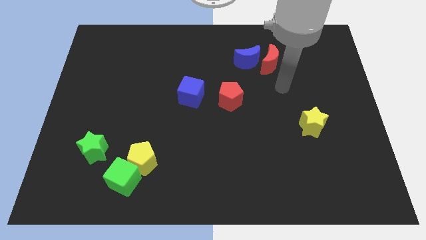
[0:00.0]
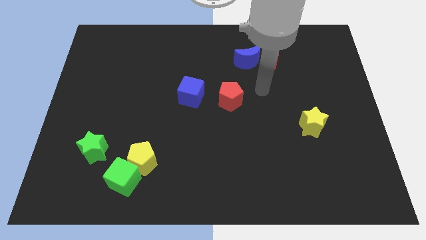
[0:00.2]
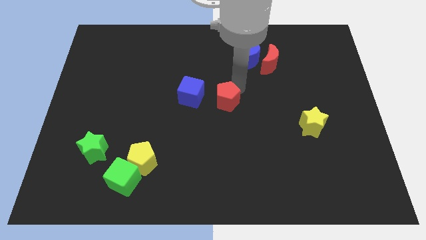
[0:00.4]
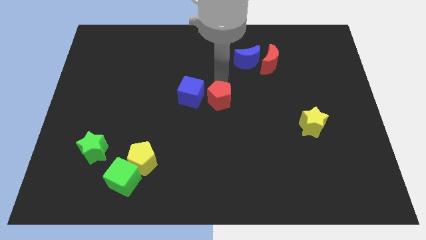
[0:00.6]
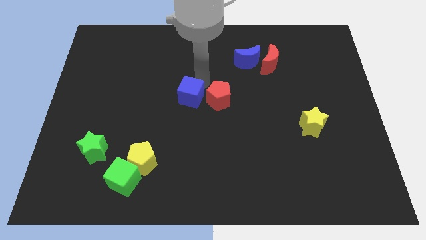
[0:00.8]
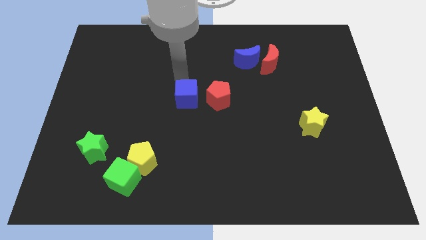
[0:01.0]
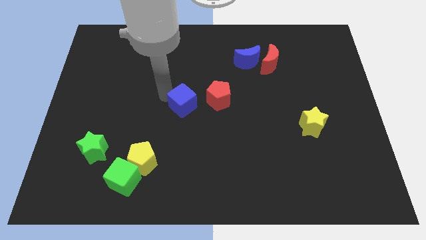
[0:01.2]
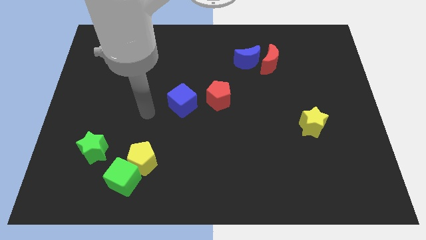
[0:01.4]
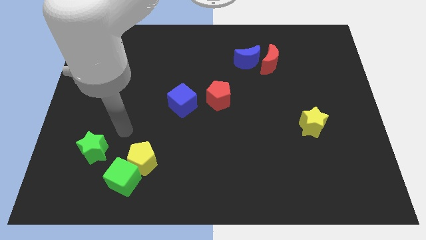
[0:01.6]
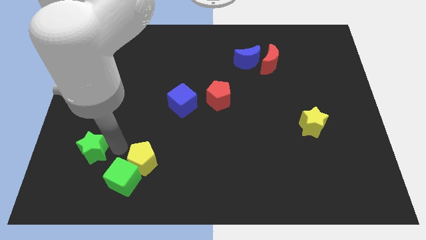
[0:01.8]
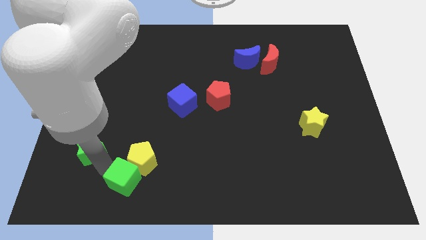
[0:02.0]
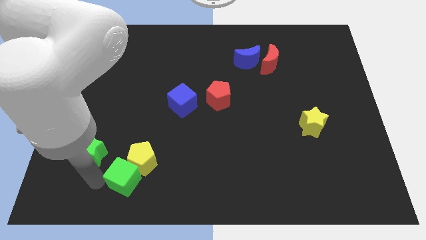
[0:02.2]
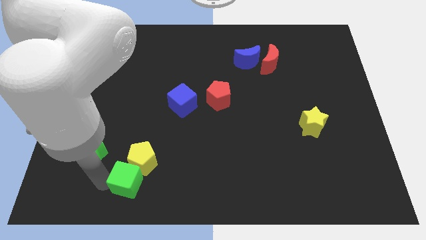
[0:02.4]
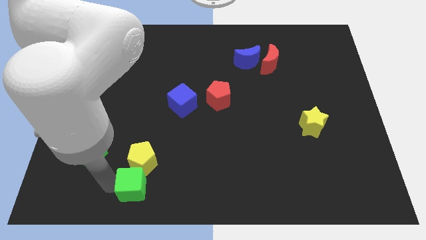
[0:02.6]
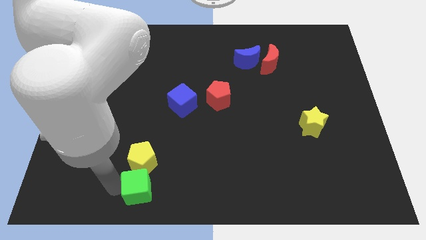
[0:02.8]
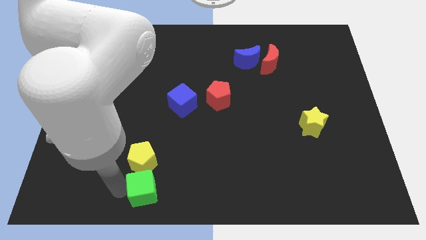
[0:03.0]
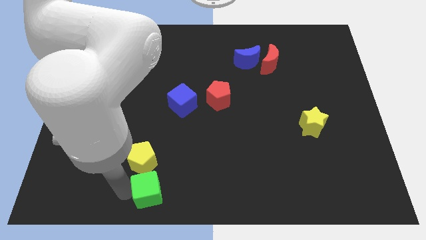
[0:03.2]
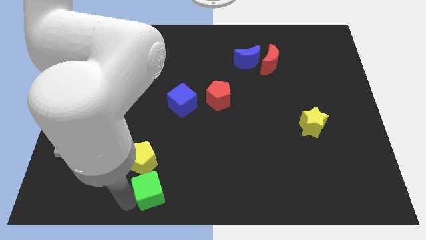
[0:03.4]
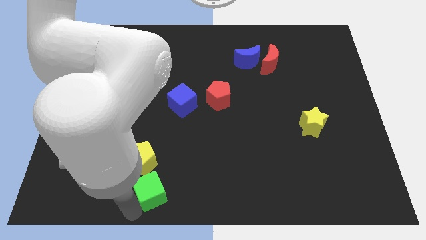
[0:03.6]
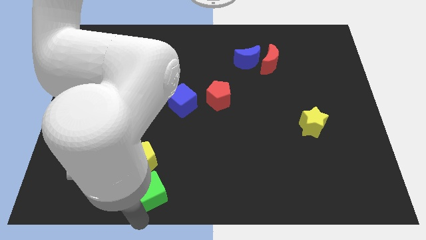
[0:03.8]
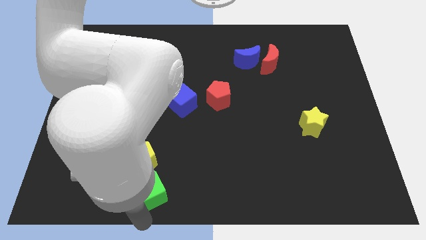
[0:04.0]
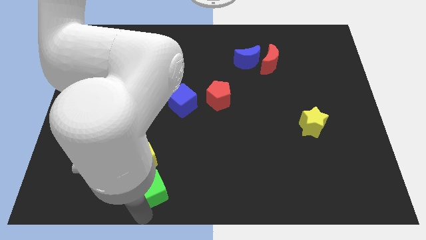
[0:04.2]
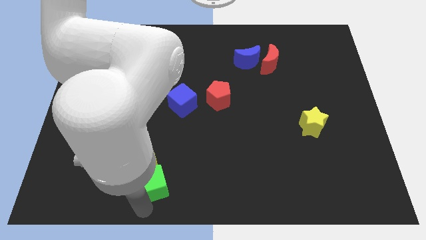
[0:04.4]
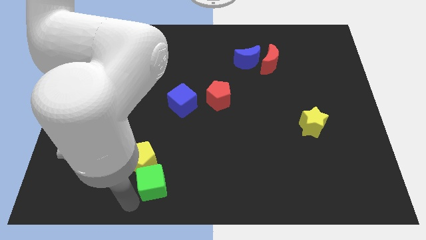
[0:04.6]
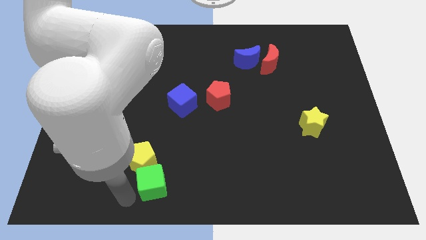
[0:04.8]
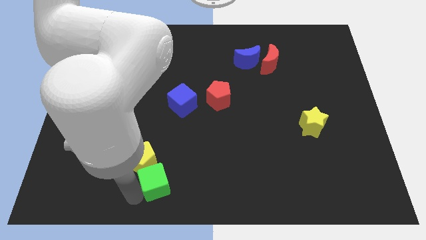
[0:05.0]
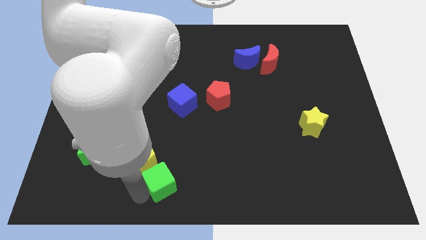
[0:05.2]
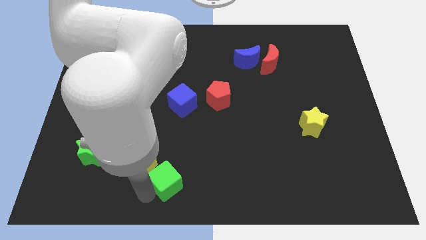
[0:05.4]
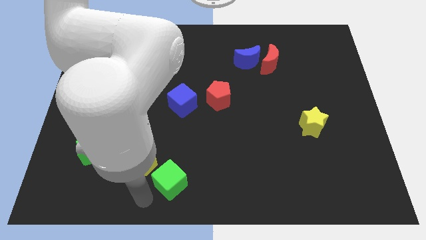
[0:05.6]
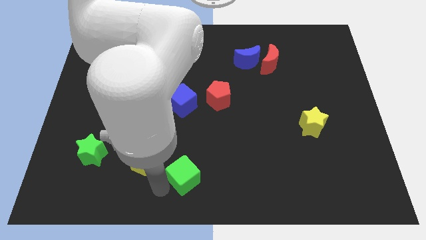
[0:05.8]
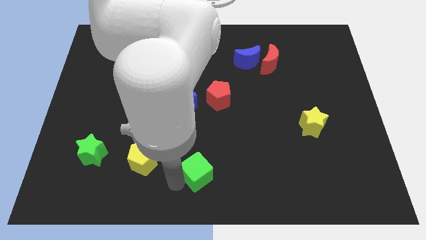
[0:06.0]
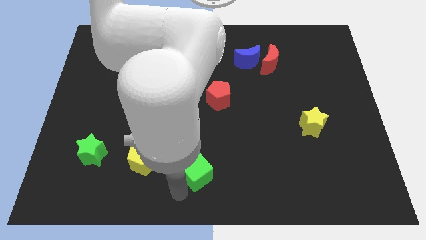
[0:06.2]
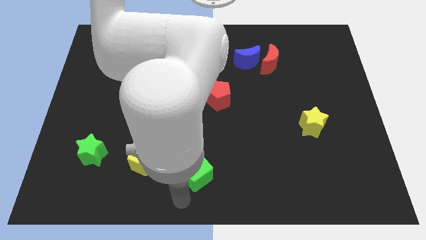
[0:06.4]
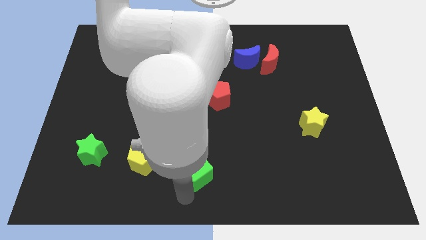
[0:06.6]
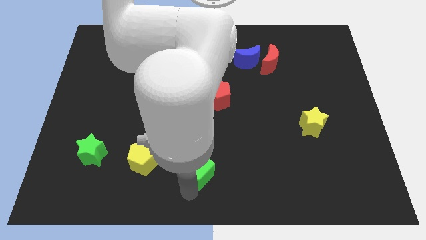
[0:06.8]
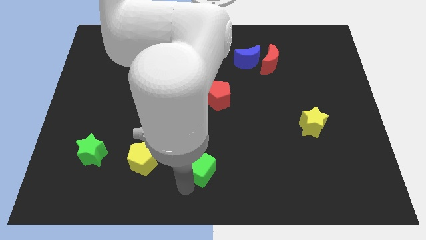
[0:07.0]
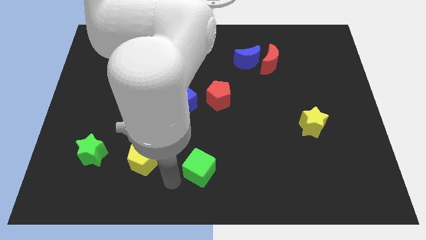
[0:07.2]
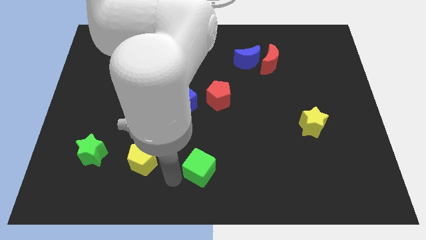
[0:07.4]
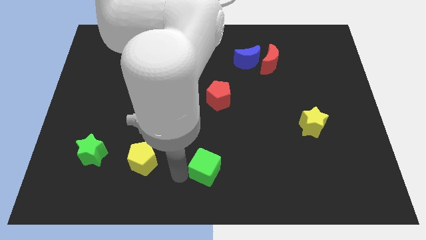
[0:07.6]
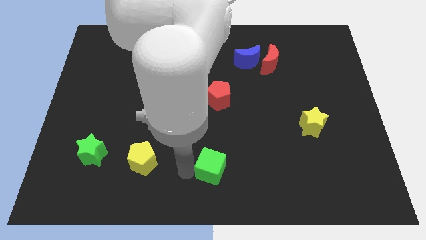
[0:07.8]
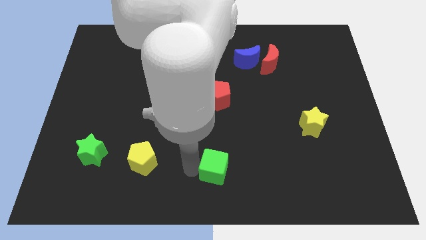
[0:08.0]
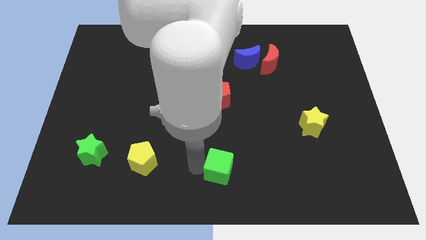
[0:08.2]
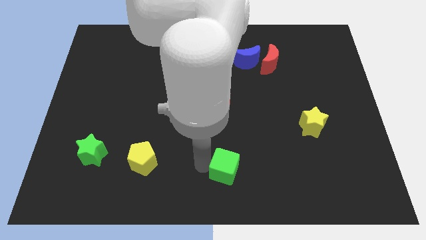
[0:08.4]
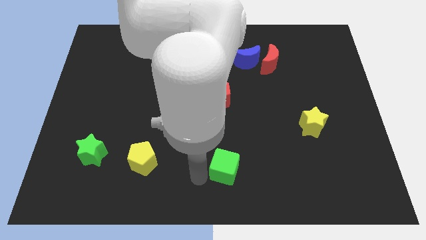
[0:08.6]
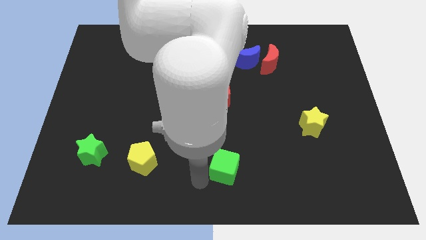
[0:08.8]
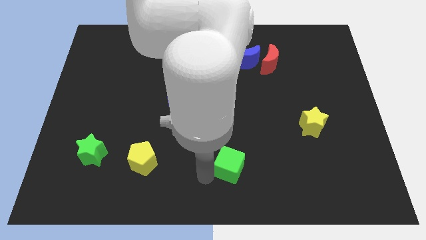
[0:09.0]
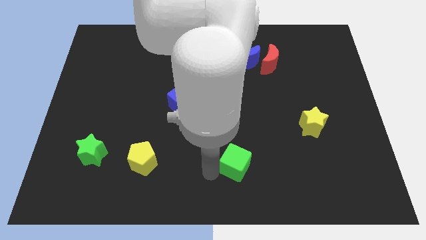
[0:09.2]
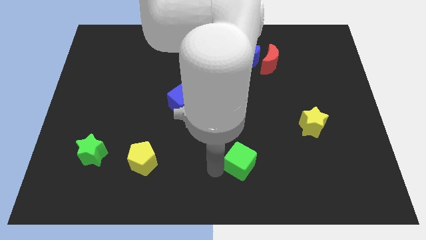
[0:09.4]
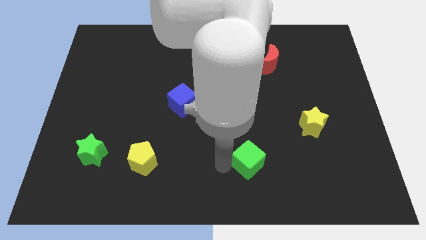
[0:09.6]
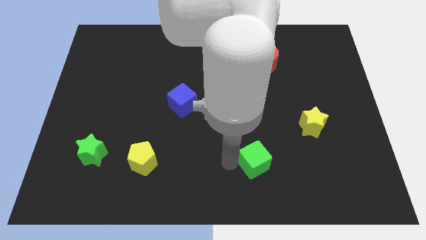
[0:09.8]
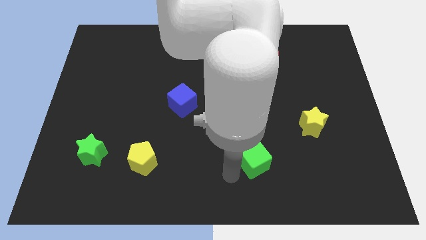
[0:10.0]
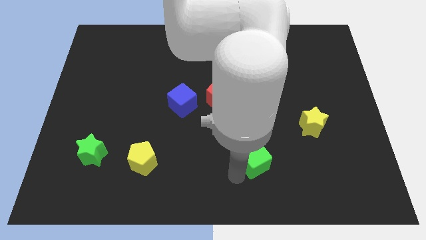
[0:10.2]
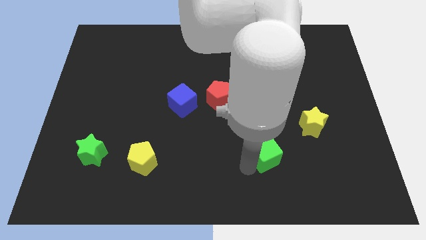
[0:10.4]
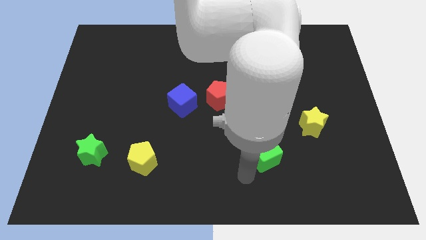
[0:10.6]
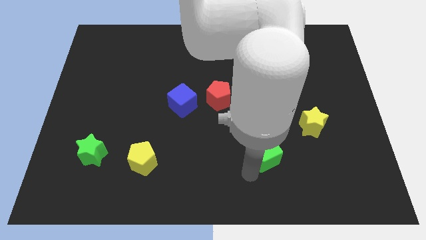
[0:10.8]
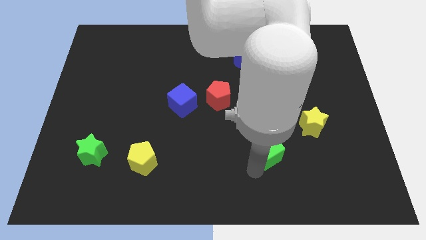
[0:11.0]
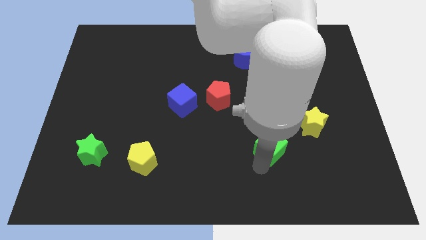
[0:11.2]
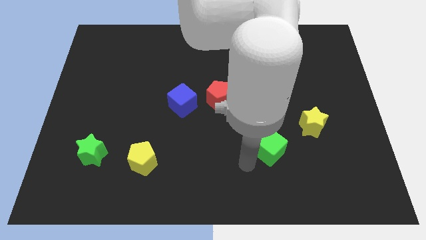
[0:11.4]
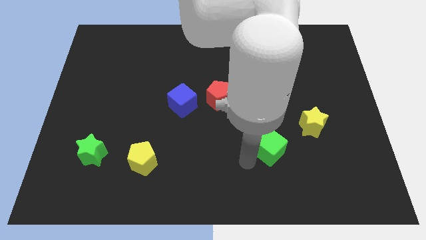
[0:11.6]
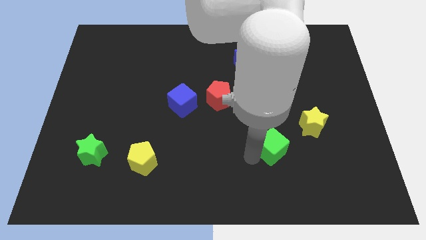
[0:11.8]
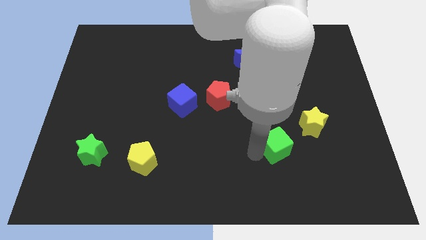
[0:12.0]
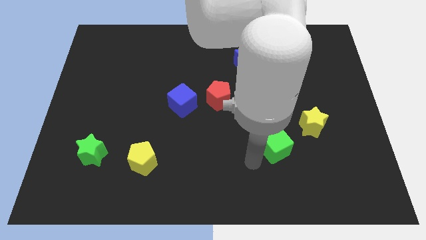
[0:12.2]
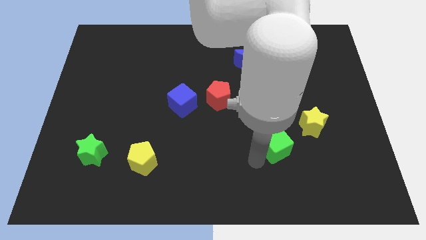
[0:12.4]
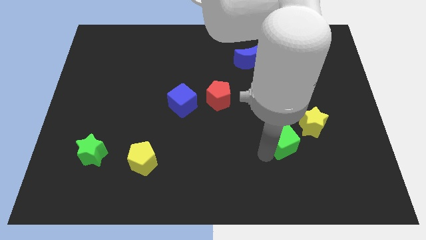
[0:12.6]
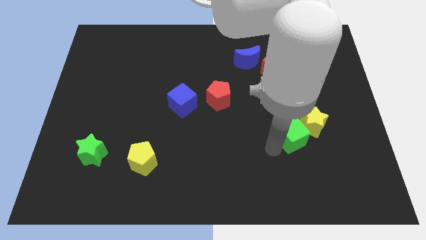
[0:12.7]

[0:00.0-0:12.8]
put the green cube close to the yellow star

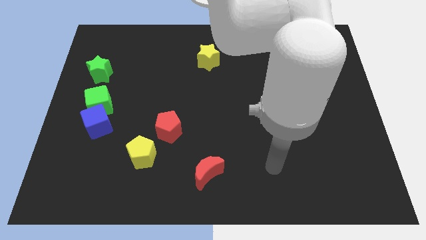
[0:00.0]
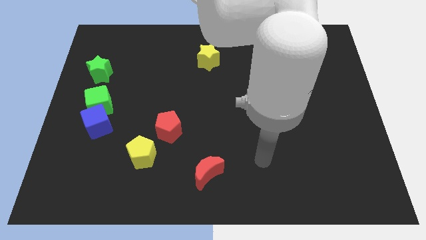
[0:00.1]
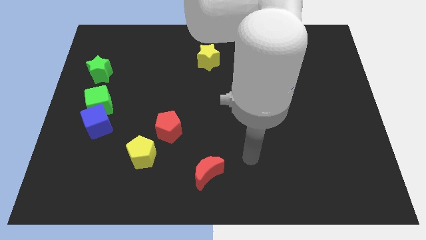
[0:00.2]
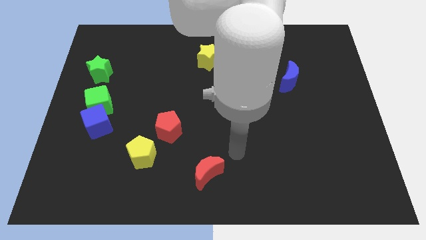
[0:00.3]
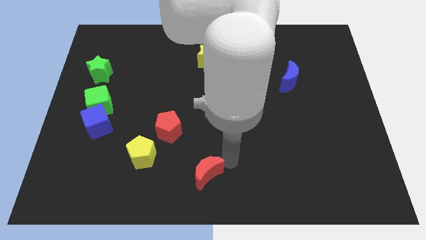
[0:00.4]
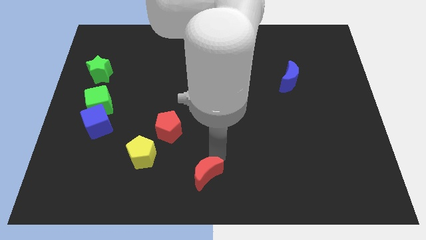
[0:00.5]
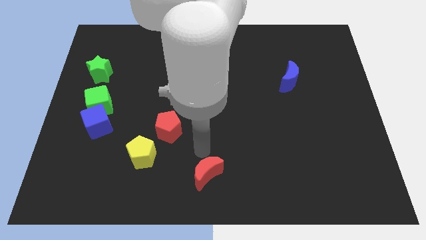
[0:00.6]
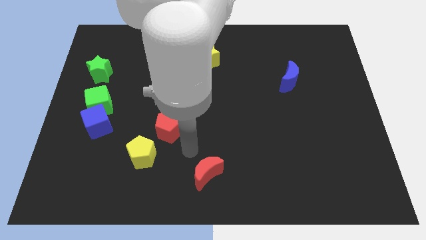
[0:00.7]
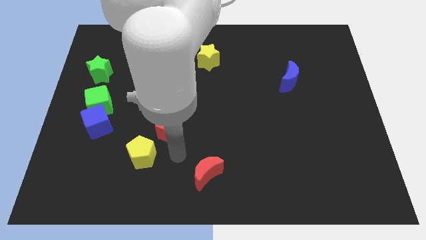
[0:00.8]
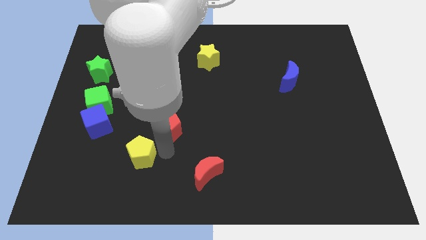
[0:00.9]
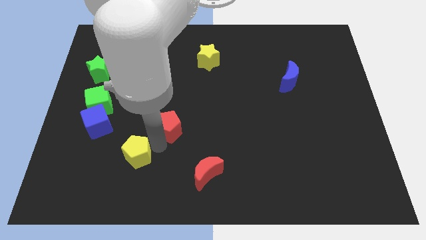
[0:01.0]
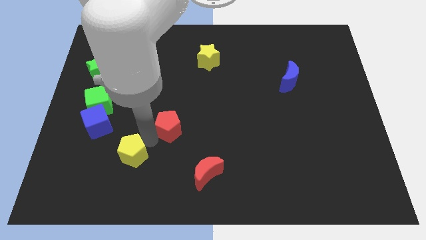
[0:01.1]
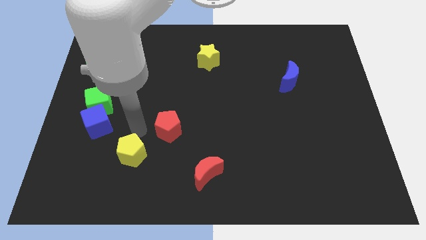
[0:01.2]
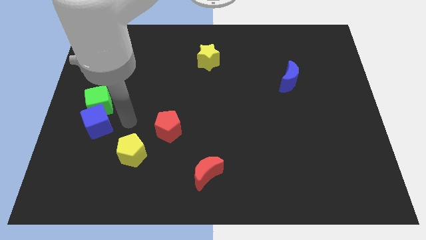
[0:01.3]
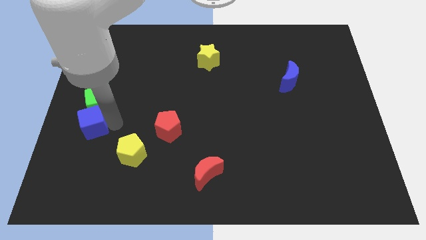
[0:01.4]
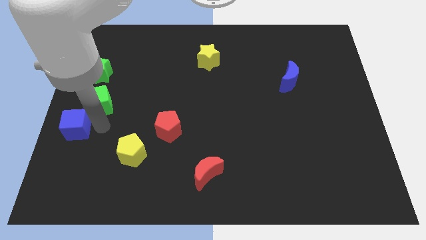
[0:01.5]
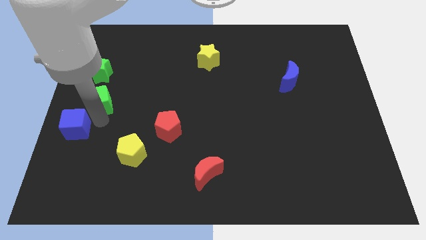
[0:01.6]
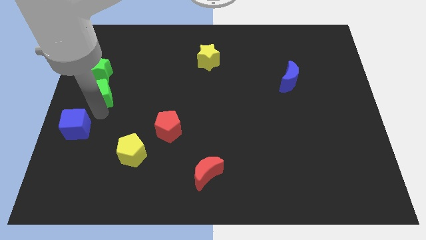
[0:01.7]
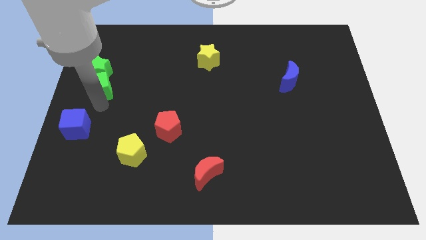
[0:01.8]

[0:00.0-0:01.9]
put the green cube towards the green star
